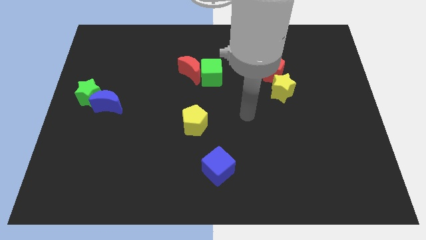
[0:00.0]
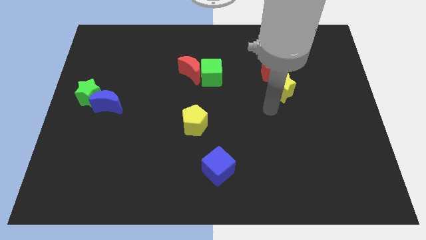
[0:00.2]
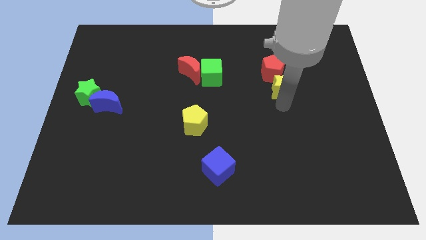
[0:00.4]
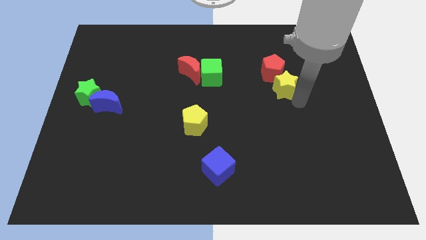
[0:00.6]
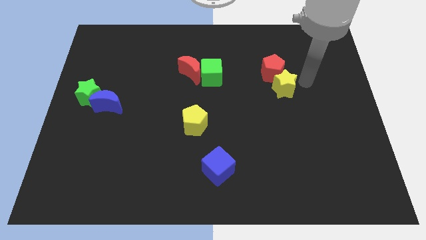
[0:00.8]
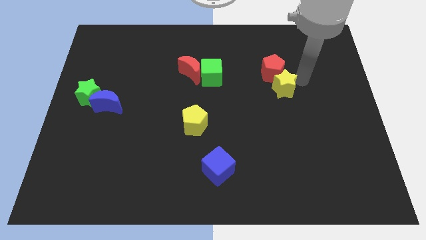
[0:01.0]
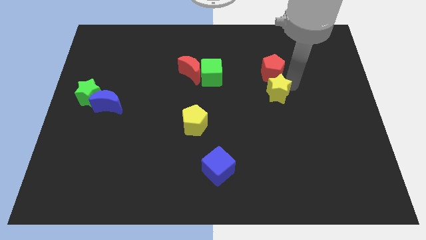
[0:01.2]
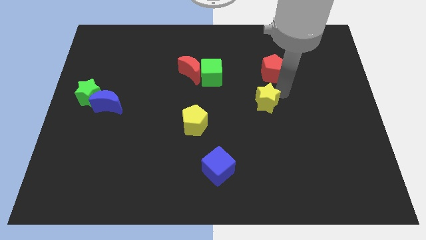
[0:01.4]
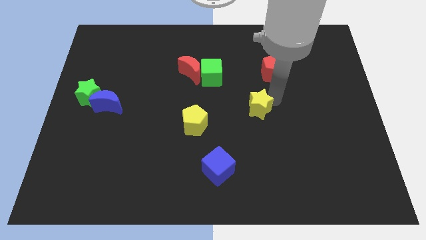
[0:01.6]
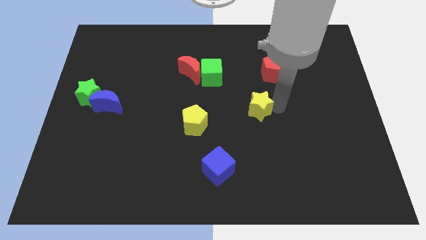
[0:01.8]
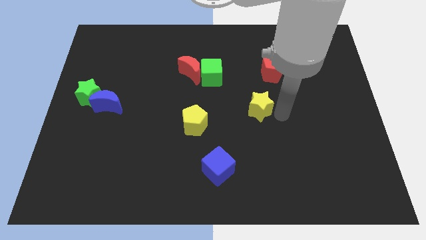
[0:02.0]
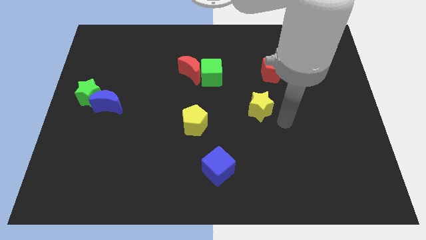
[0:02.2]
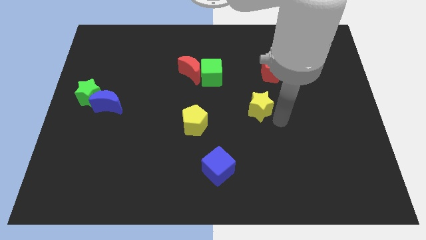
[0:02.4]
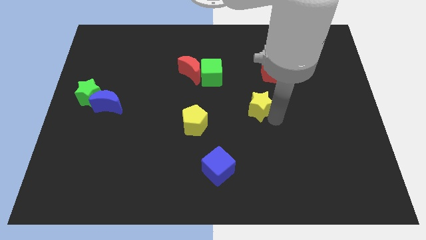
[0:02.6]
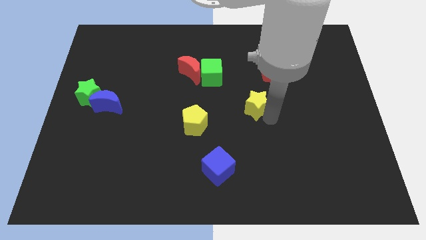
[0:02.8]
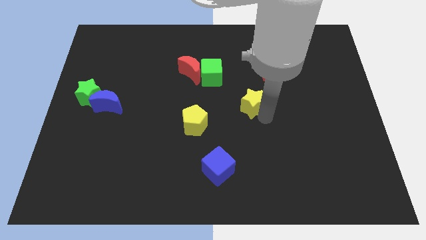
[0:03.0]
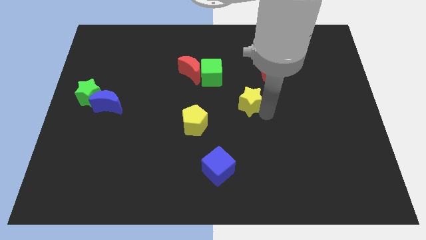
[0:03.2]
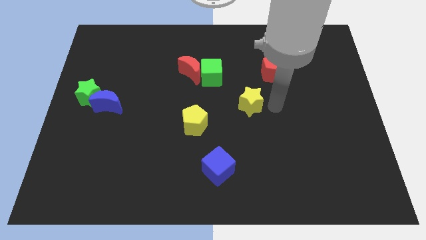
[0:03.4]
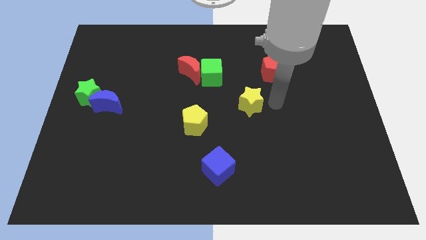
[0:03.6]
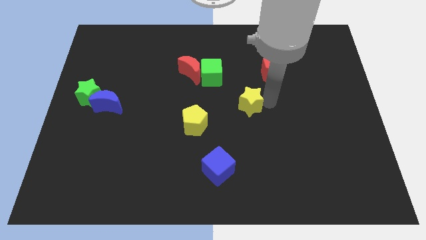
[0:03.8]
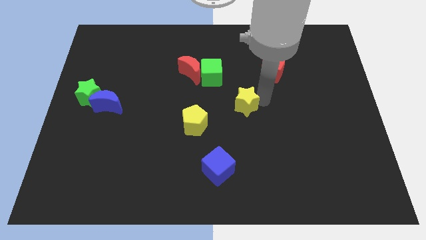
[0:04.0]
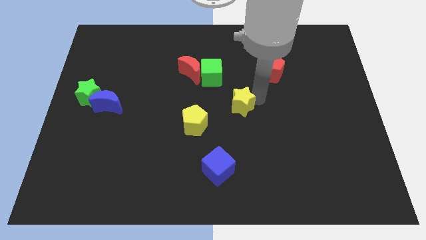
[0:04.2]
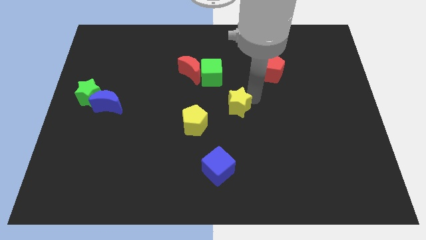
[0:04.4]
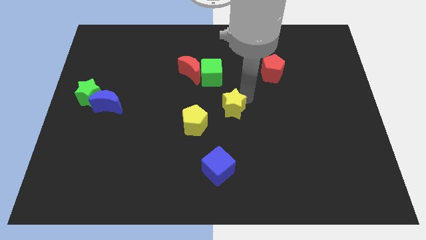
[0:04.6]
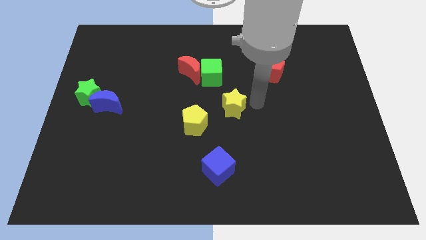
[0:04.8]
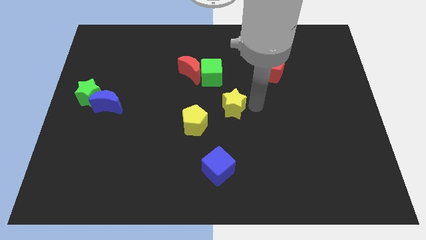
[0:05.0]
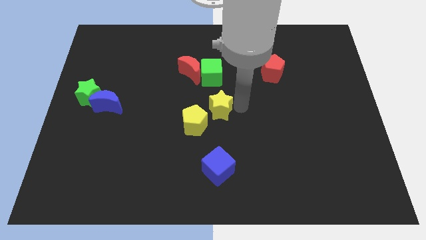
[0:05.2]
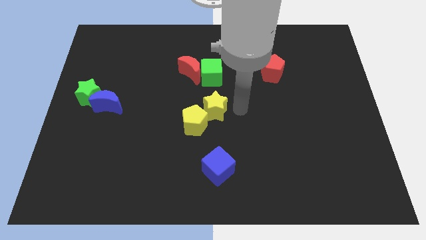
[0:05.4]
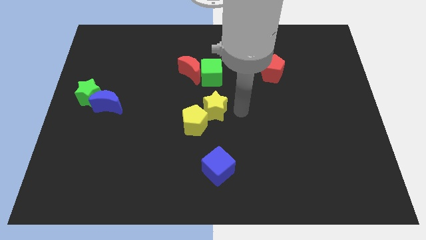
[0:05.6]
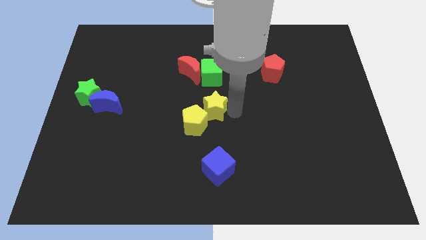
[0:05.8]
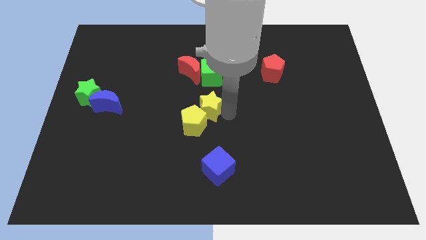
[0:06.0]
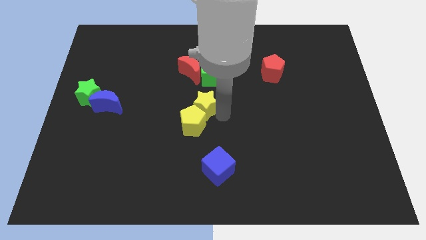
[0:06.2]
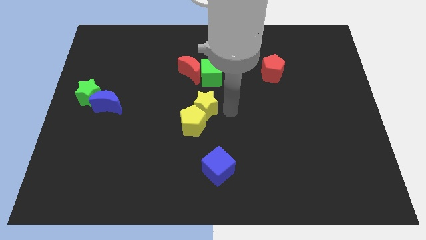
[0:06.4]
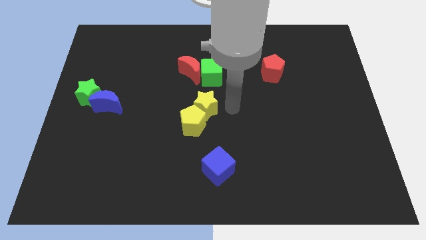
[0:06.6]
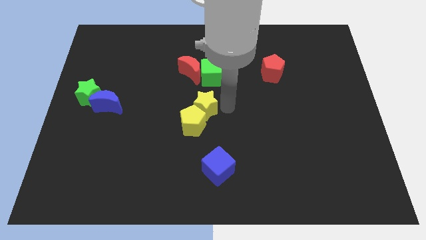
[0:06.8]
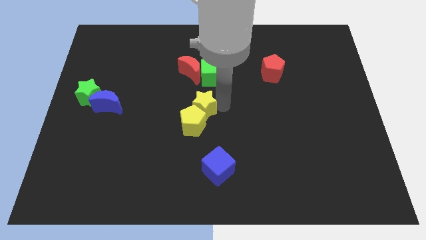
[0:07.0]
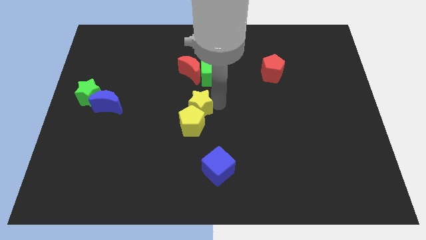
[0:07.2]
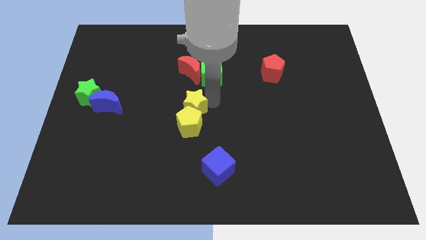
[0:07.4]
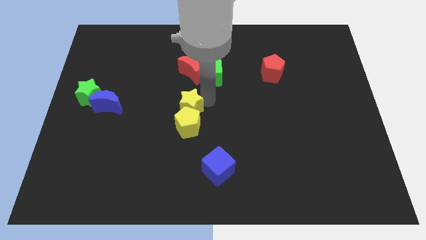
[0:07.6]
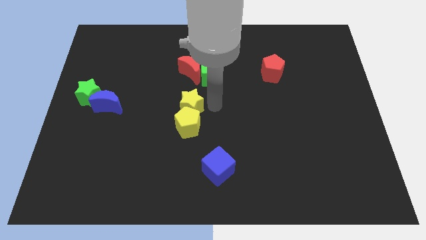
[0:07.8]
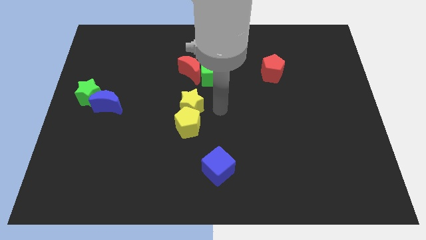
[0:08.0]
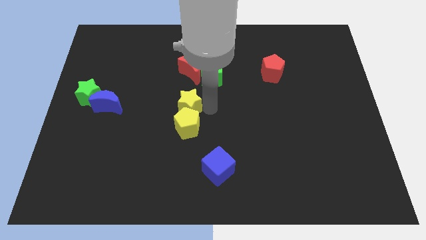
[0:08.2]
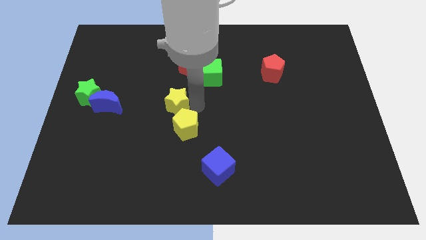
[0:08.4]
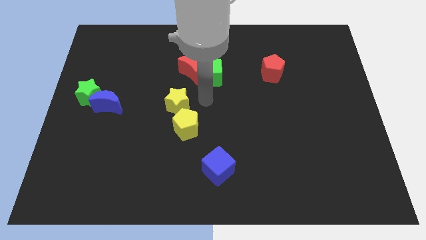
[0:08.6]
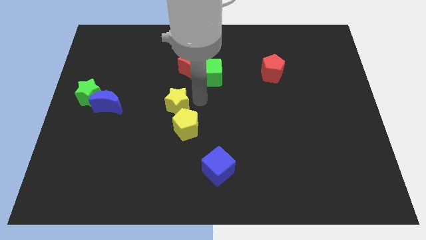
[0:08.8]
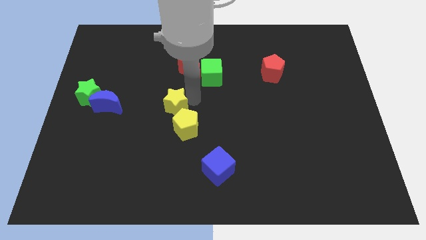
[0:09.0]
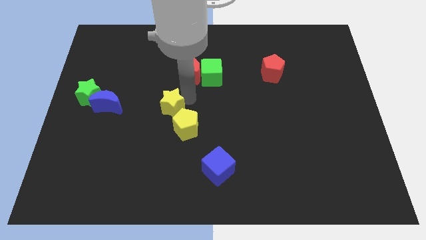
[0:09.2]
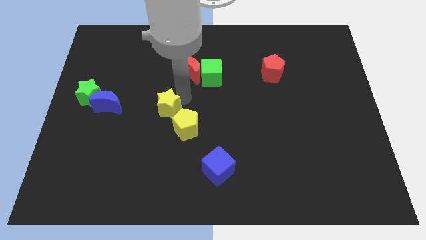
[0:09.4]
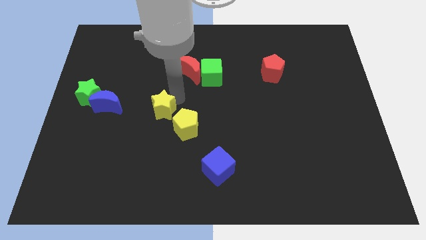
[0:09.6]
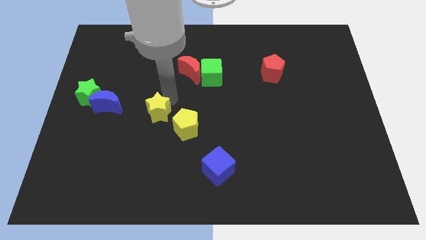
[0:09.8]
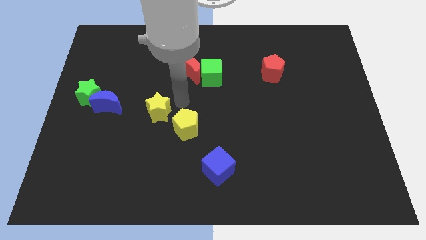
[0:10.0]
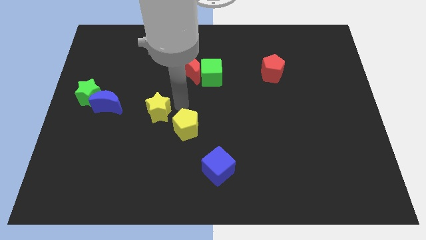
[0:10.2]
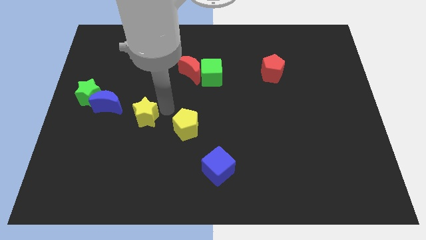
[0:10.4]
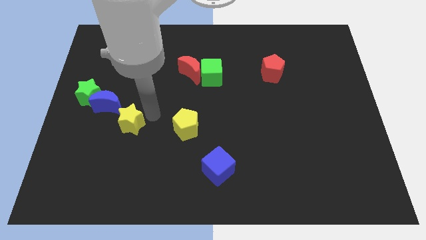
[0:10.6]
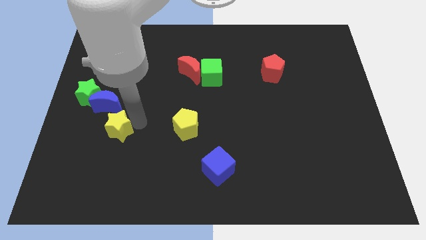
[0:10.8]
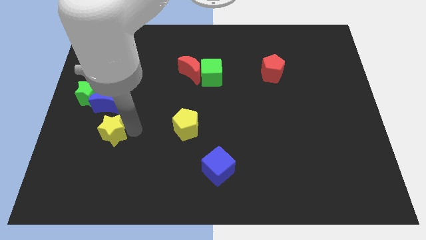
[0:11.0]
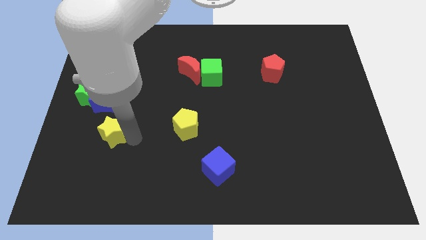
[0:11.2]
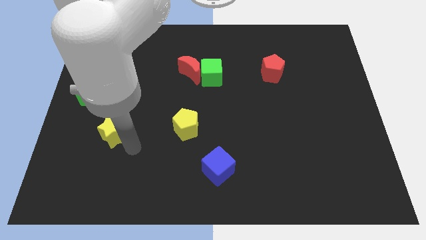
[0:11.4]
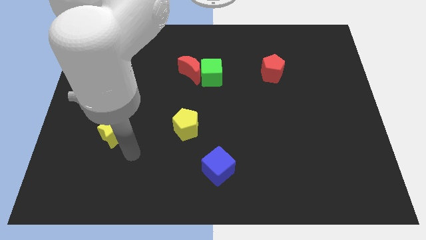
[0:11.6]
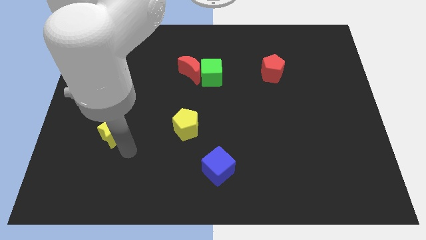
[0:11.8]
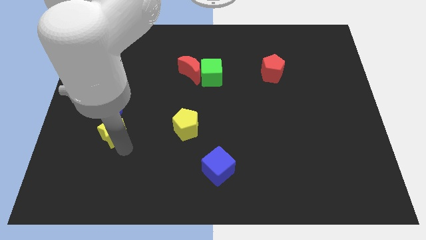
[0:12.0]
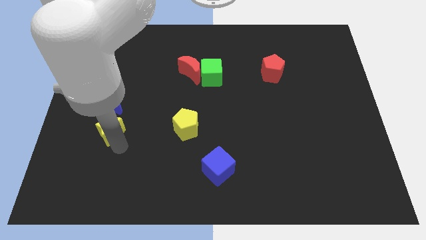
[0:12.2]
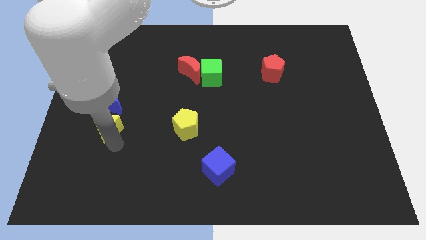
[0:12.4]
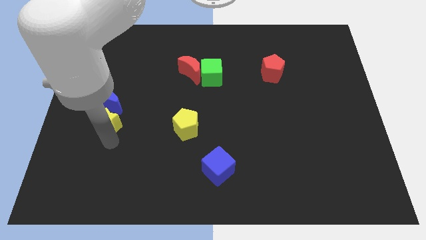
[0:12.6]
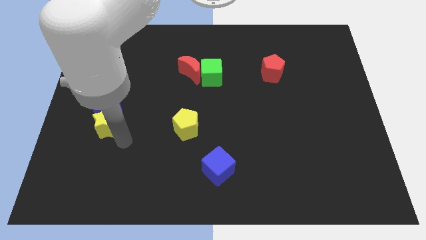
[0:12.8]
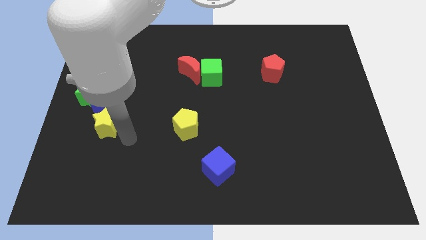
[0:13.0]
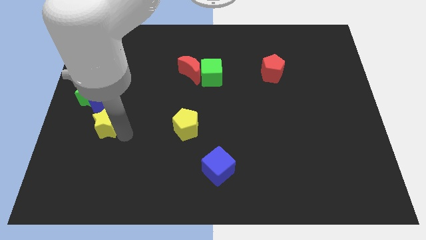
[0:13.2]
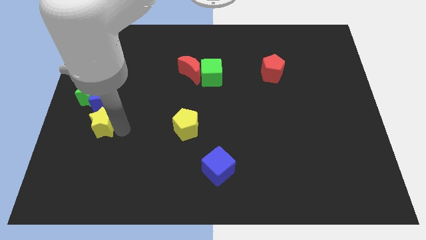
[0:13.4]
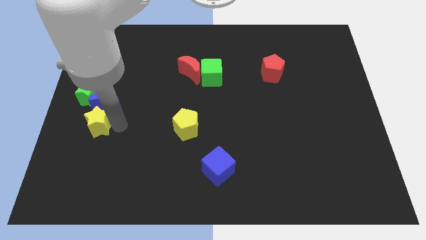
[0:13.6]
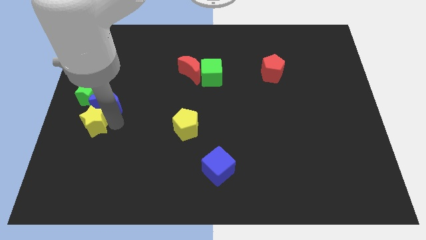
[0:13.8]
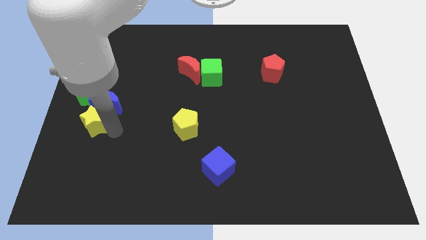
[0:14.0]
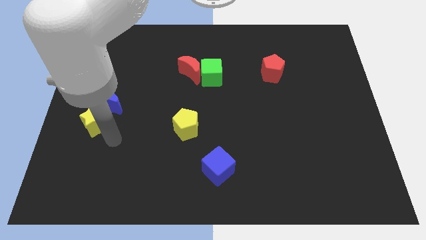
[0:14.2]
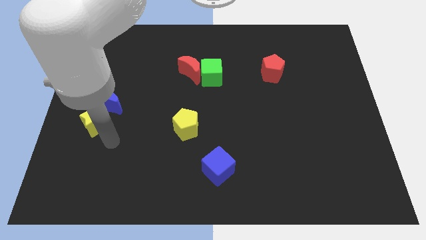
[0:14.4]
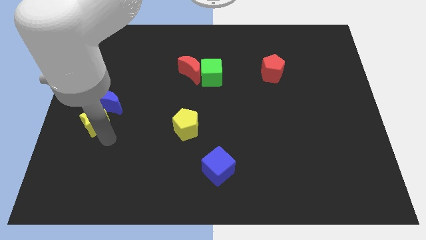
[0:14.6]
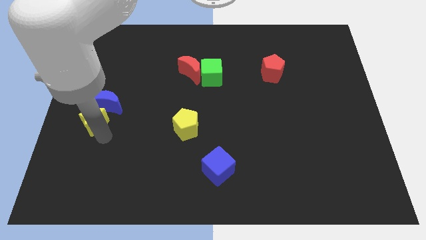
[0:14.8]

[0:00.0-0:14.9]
move the yellow star to the left side
